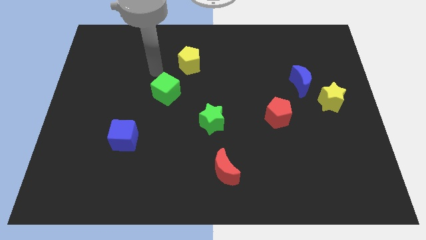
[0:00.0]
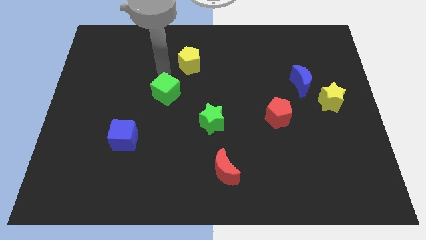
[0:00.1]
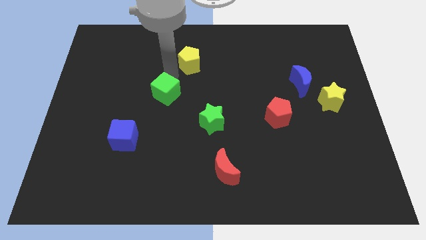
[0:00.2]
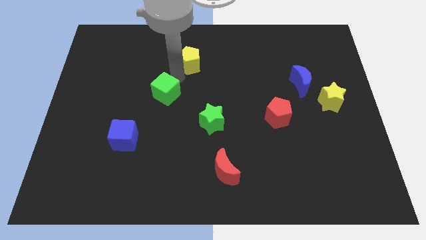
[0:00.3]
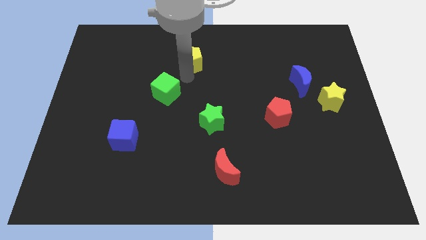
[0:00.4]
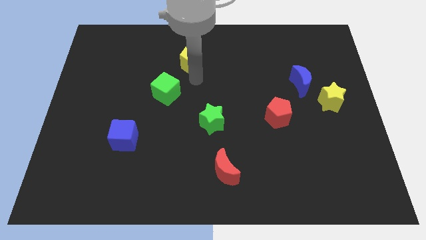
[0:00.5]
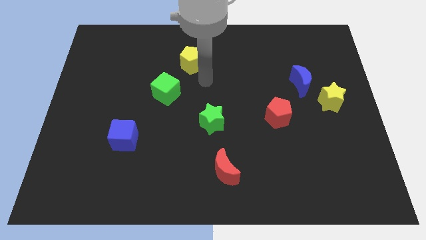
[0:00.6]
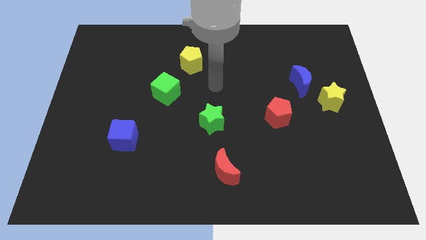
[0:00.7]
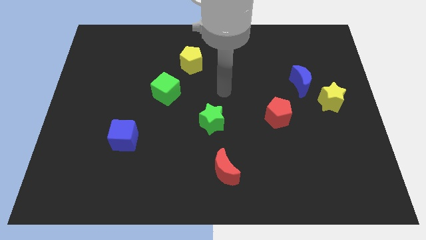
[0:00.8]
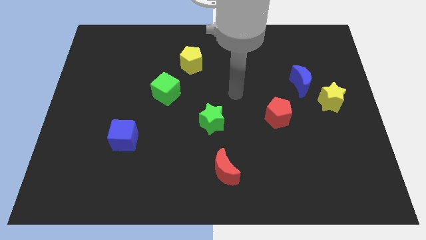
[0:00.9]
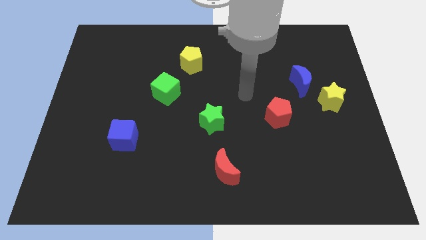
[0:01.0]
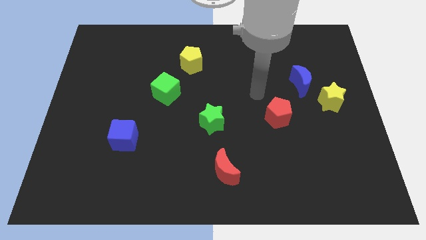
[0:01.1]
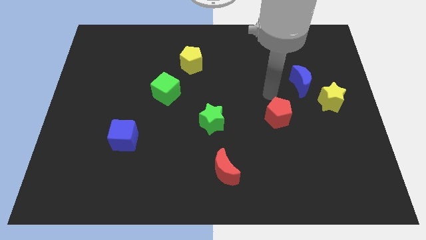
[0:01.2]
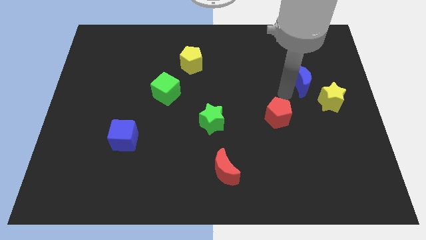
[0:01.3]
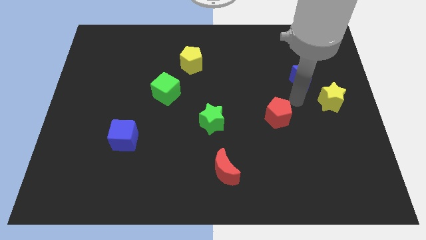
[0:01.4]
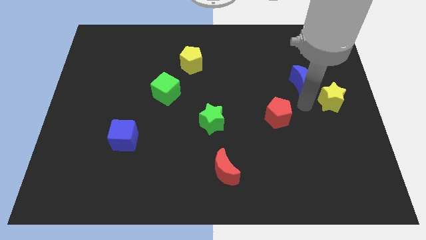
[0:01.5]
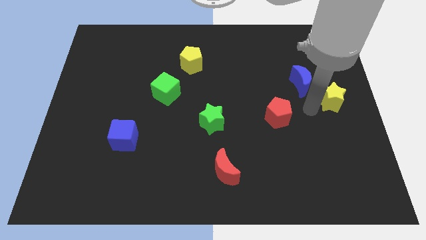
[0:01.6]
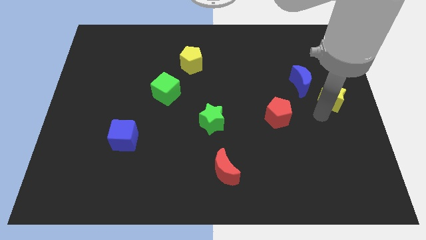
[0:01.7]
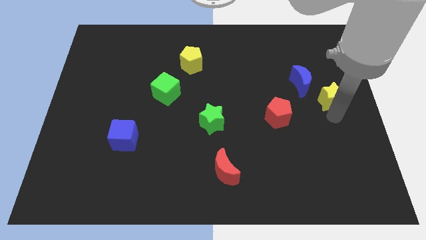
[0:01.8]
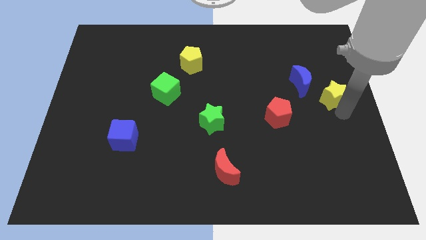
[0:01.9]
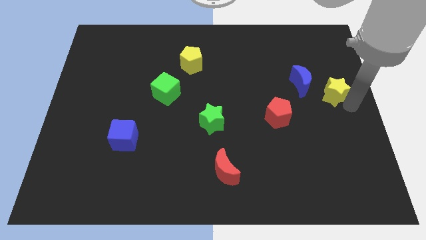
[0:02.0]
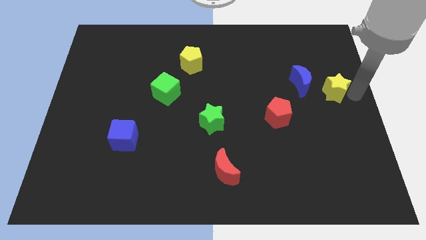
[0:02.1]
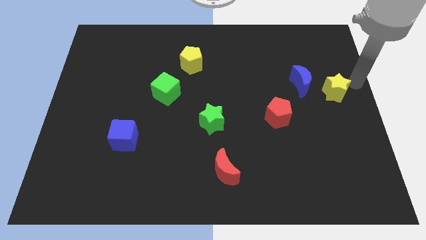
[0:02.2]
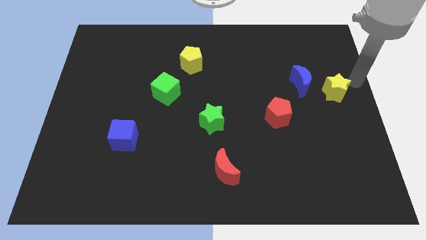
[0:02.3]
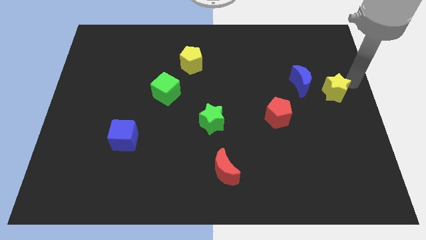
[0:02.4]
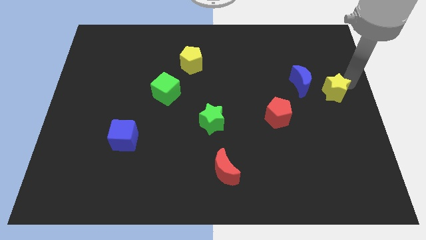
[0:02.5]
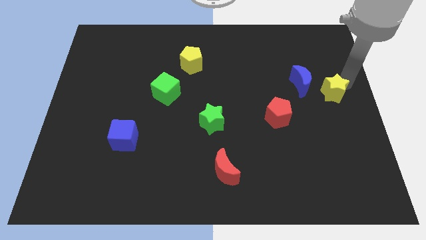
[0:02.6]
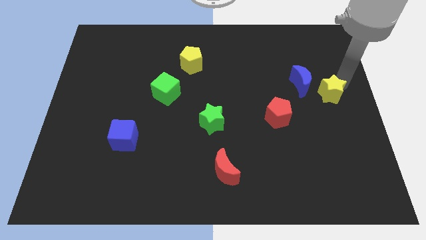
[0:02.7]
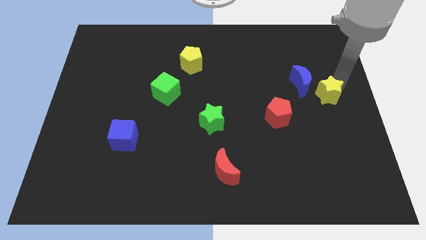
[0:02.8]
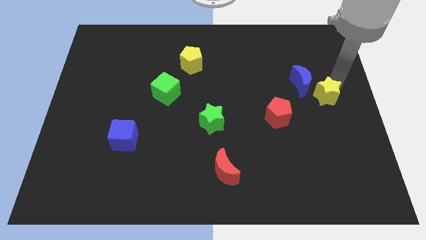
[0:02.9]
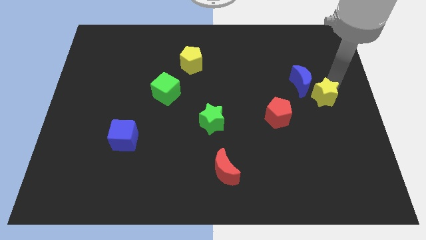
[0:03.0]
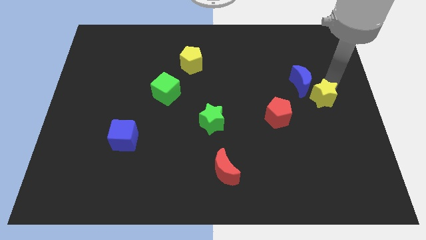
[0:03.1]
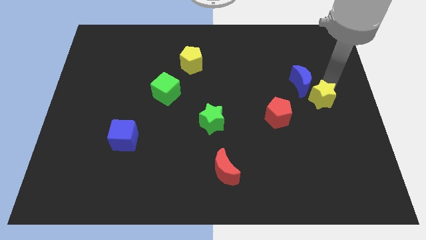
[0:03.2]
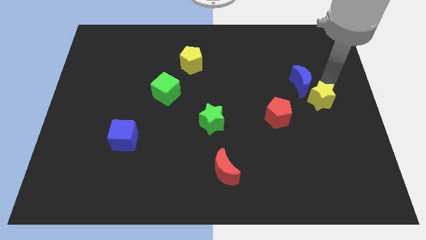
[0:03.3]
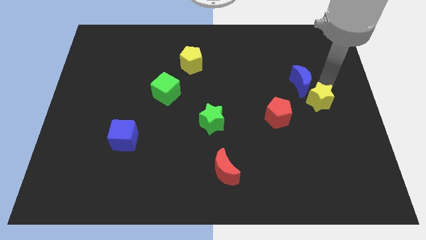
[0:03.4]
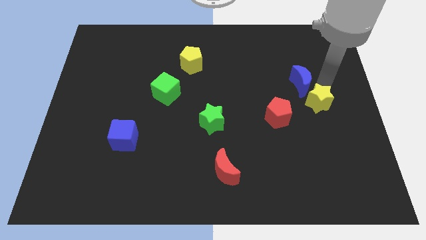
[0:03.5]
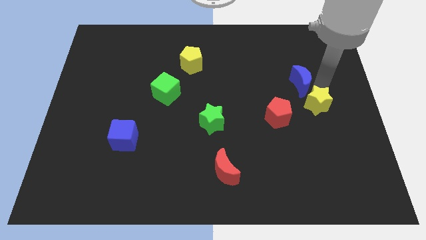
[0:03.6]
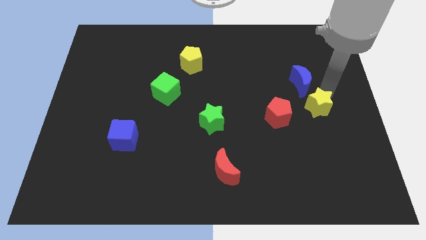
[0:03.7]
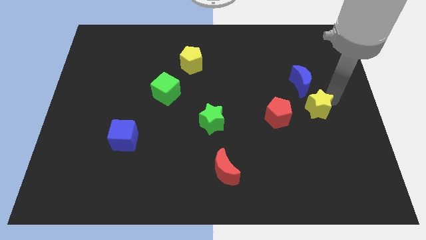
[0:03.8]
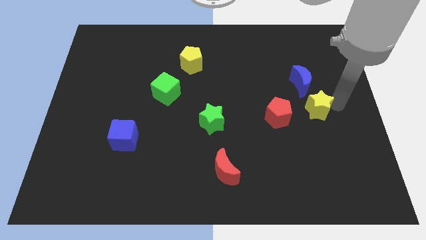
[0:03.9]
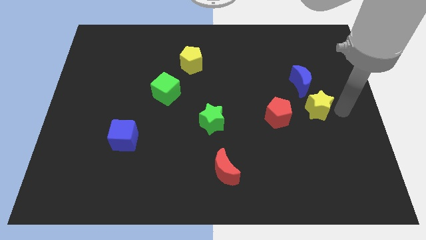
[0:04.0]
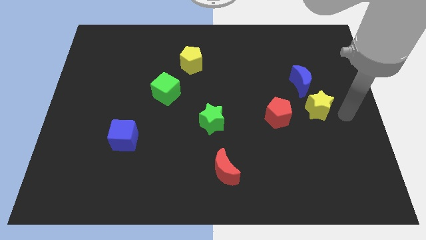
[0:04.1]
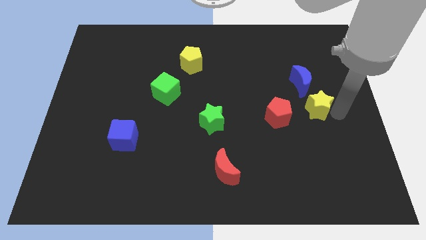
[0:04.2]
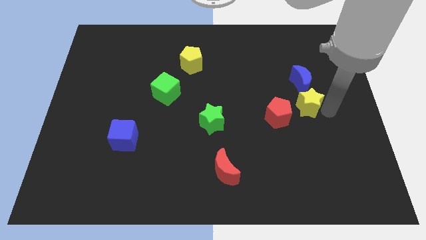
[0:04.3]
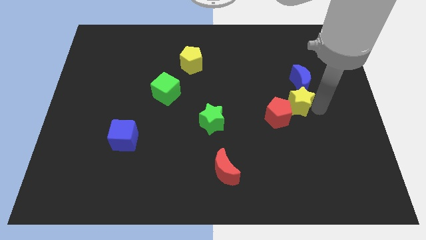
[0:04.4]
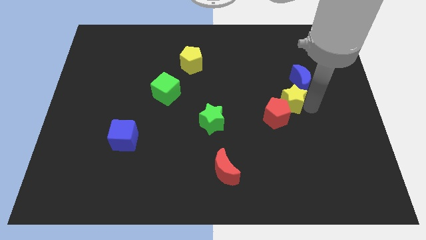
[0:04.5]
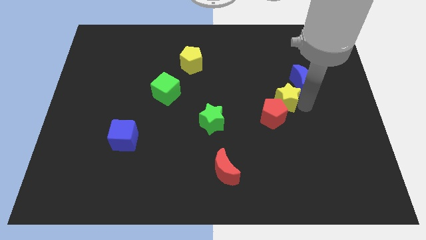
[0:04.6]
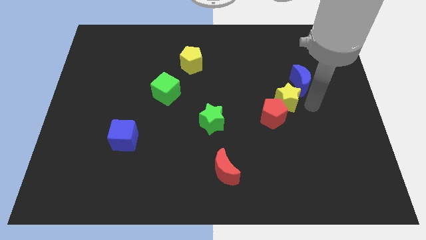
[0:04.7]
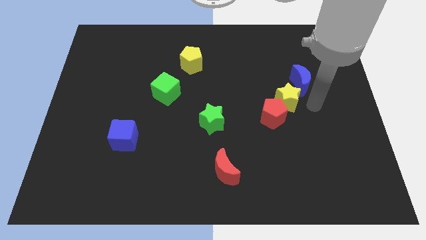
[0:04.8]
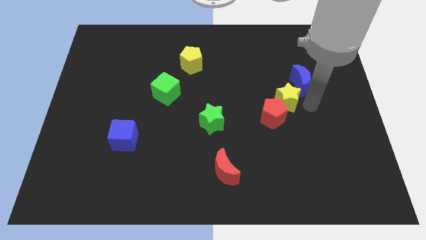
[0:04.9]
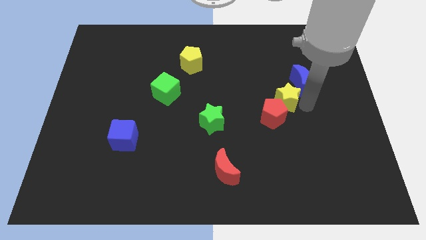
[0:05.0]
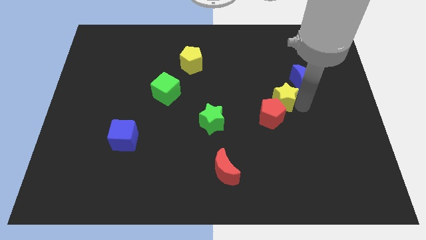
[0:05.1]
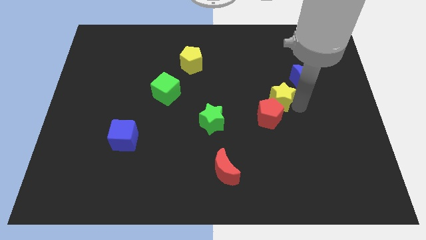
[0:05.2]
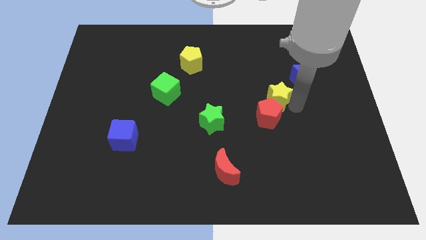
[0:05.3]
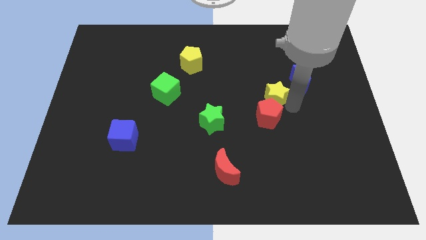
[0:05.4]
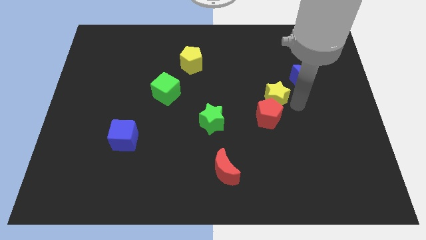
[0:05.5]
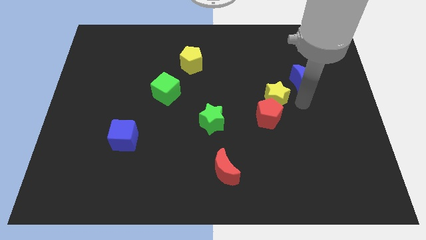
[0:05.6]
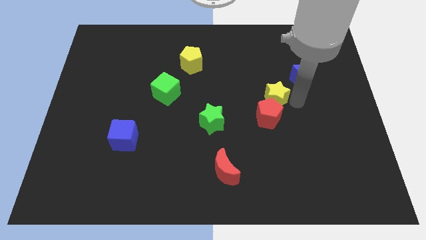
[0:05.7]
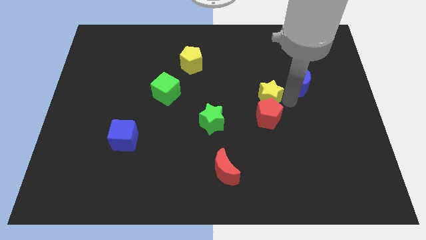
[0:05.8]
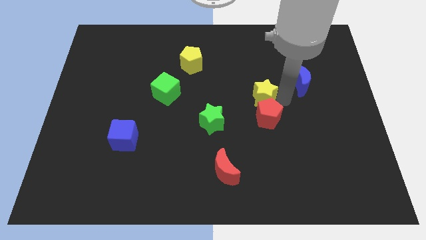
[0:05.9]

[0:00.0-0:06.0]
put the yellow star to the center

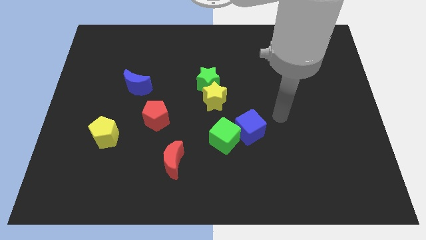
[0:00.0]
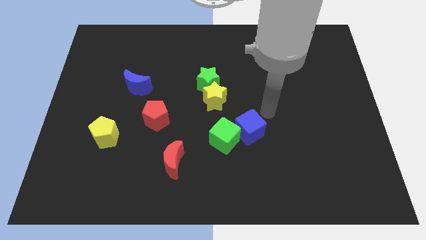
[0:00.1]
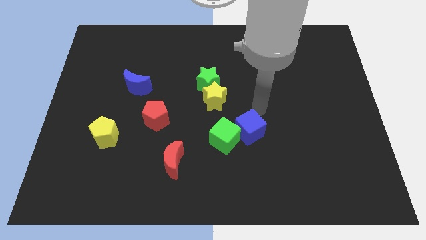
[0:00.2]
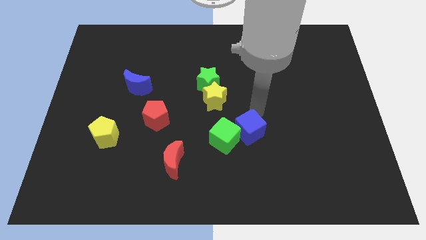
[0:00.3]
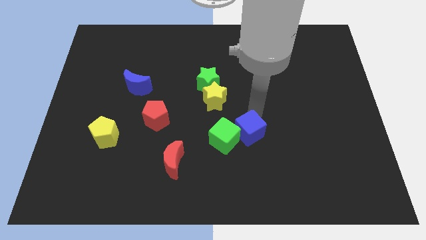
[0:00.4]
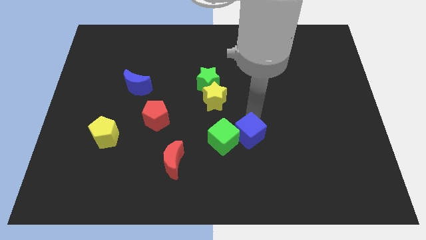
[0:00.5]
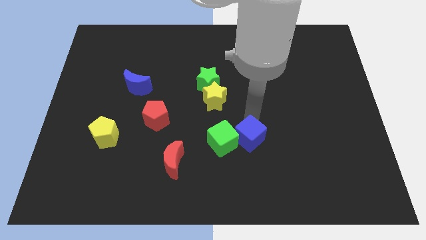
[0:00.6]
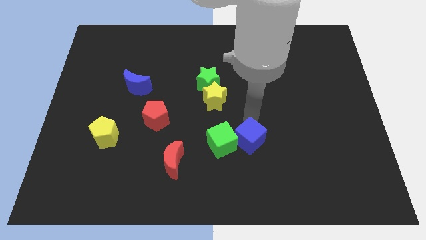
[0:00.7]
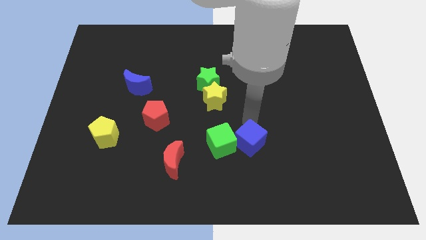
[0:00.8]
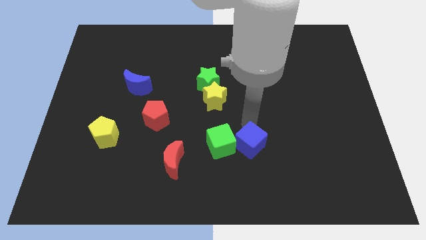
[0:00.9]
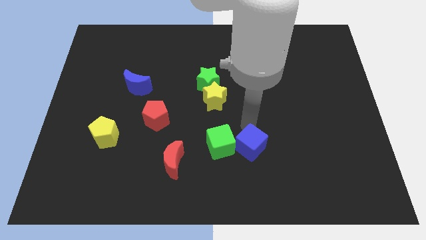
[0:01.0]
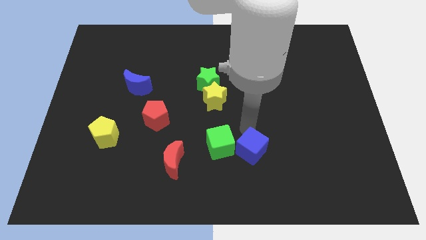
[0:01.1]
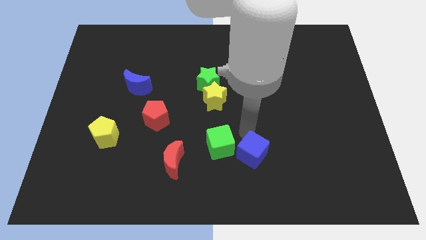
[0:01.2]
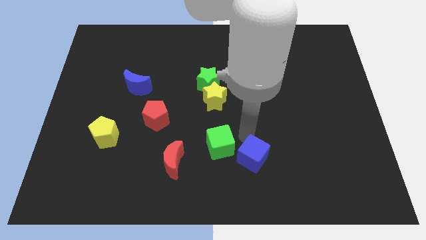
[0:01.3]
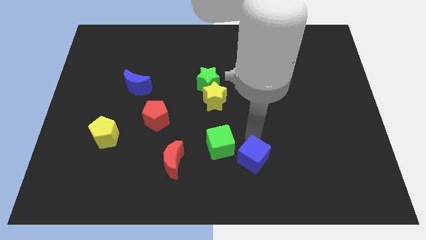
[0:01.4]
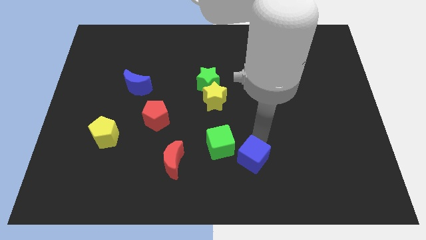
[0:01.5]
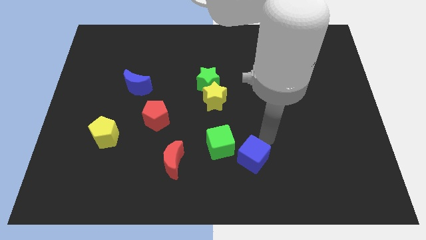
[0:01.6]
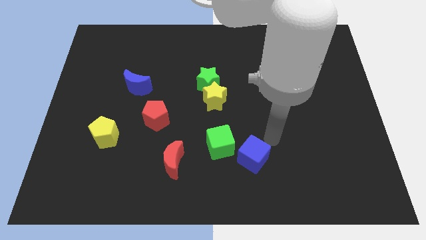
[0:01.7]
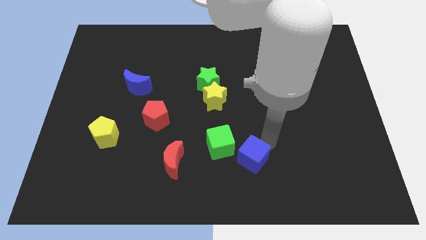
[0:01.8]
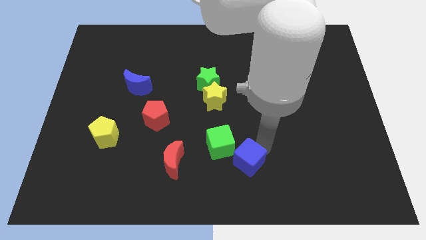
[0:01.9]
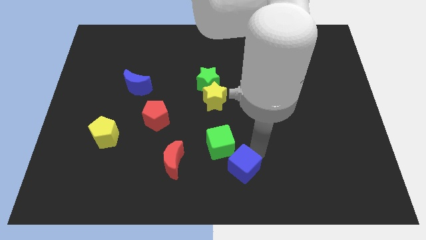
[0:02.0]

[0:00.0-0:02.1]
slide the blue cube to the bottom

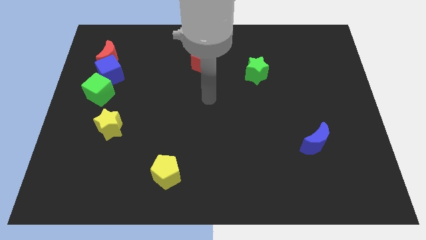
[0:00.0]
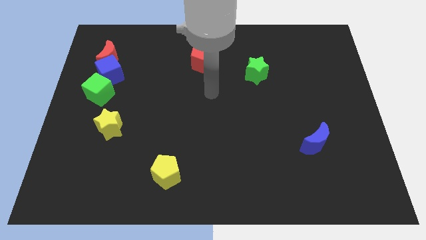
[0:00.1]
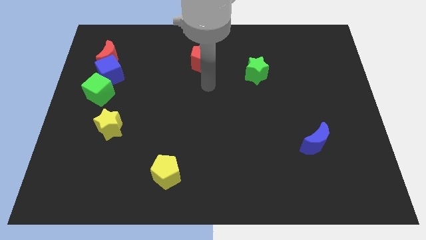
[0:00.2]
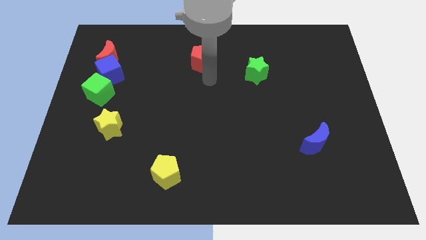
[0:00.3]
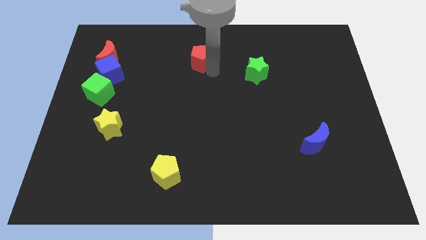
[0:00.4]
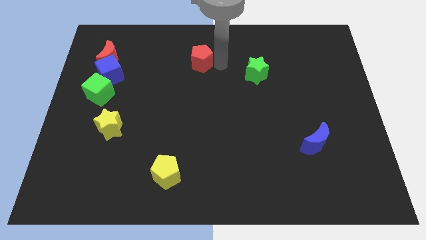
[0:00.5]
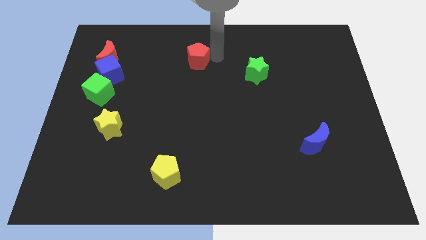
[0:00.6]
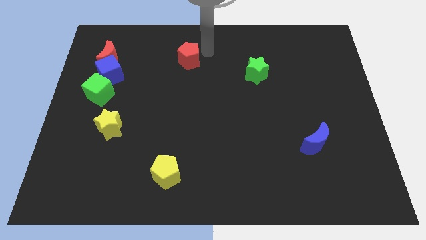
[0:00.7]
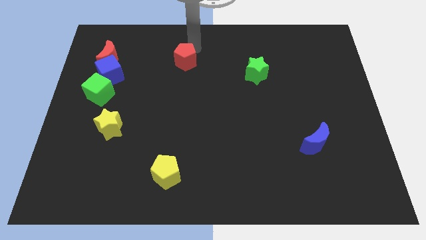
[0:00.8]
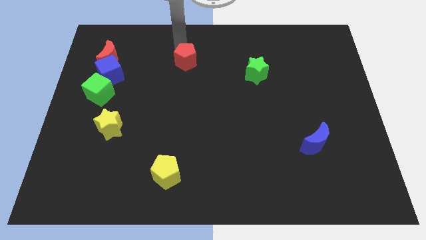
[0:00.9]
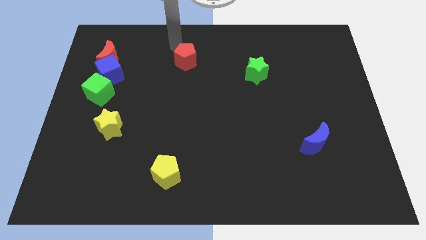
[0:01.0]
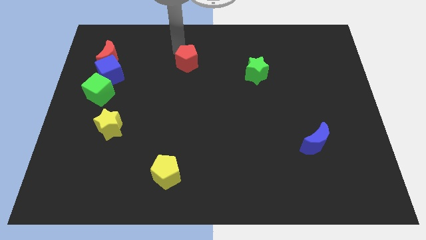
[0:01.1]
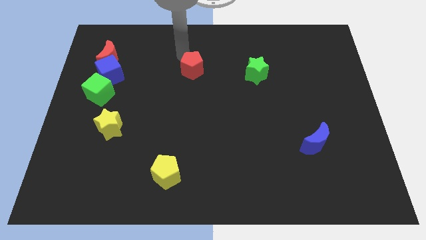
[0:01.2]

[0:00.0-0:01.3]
slide the red pentagon to the center of the board
